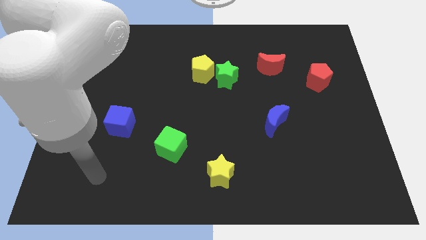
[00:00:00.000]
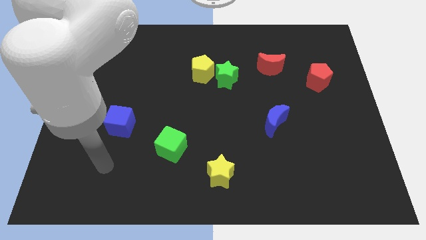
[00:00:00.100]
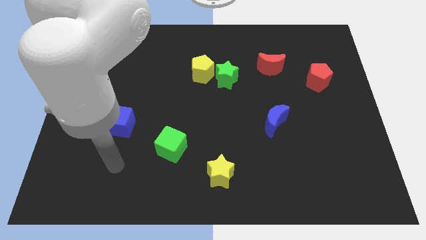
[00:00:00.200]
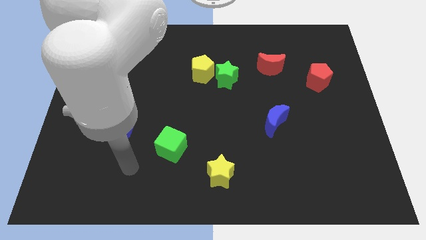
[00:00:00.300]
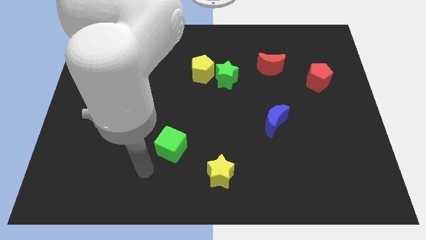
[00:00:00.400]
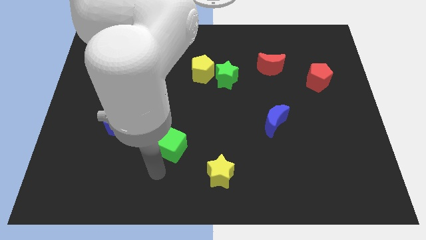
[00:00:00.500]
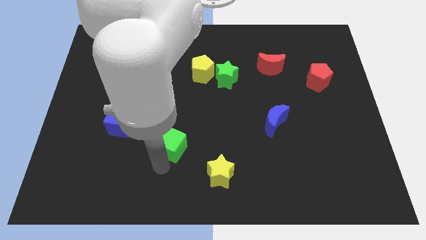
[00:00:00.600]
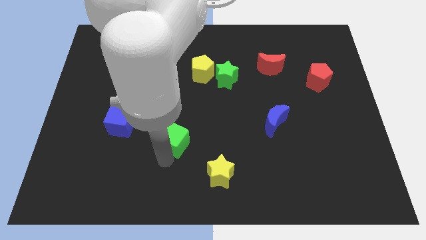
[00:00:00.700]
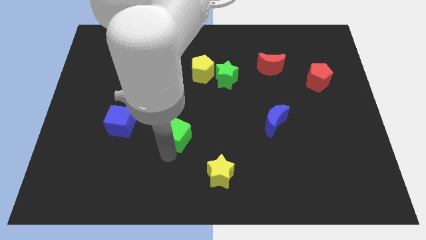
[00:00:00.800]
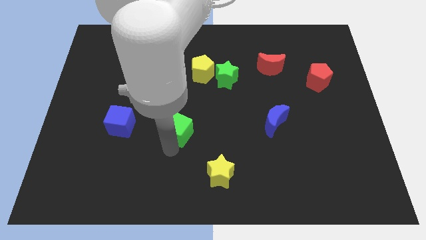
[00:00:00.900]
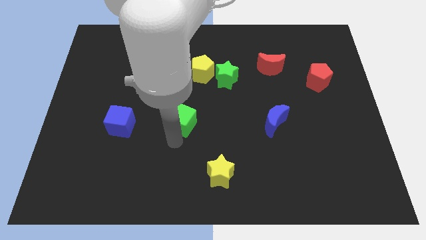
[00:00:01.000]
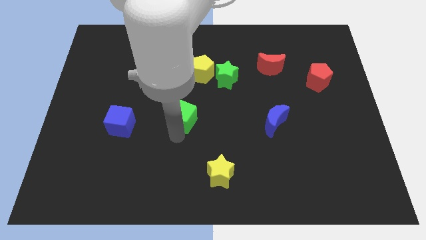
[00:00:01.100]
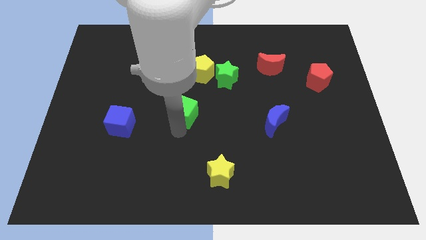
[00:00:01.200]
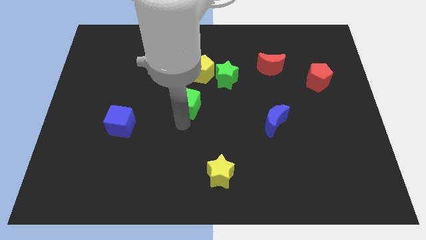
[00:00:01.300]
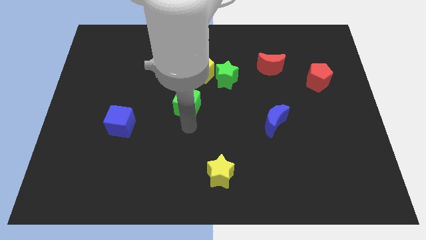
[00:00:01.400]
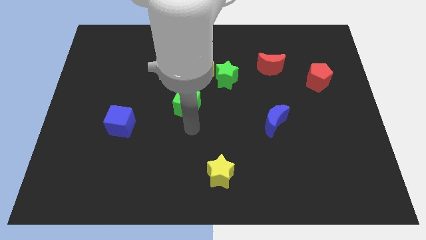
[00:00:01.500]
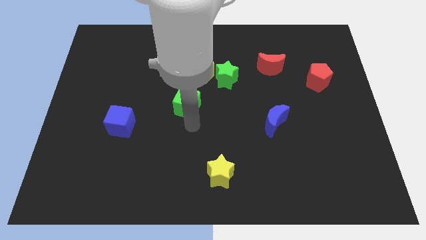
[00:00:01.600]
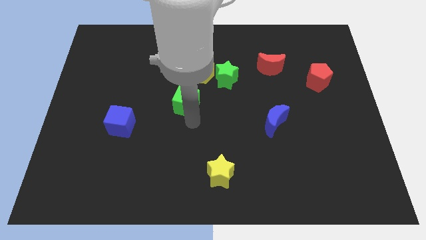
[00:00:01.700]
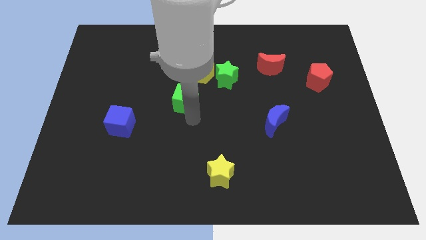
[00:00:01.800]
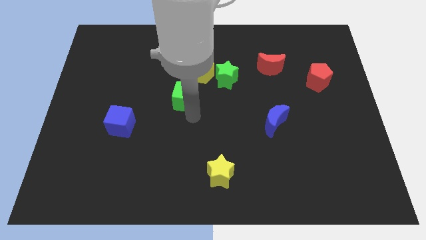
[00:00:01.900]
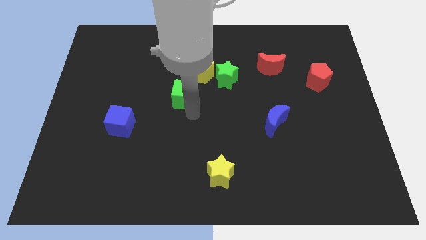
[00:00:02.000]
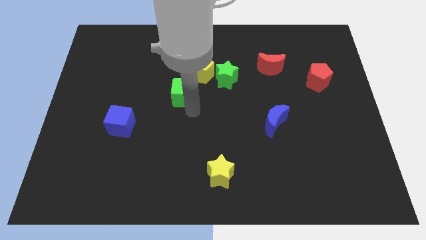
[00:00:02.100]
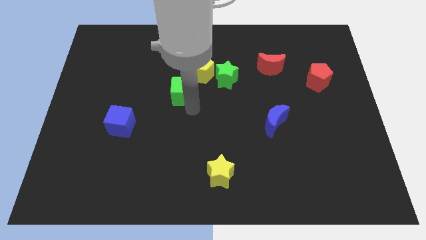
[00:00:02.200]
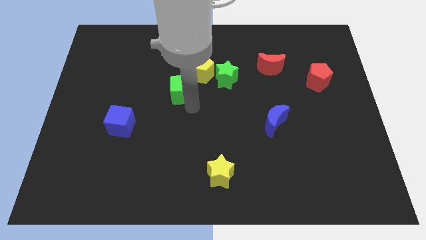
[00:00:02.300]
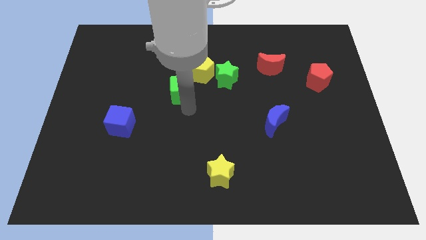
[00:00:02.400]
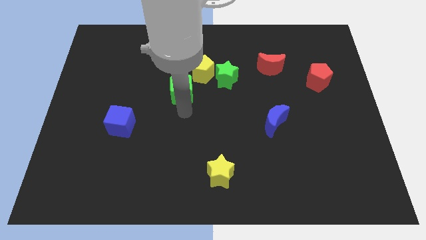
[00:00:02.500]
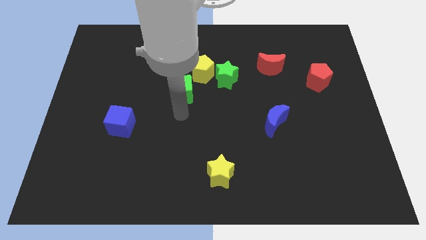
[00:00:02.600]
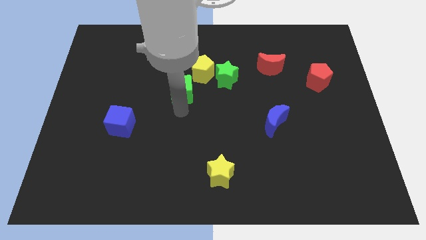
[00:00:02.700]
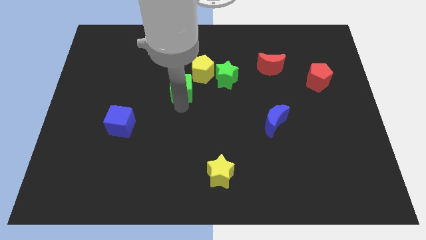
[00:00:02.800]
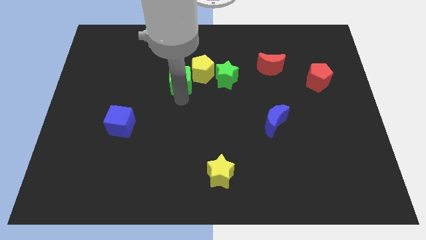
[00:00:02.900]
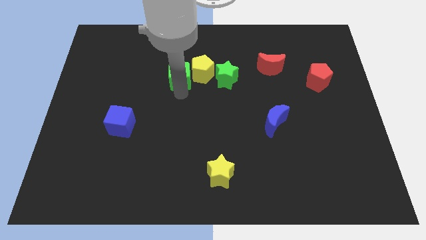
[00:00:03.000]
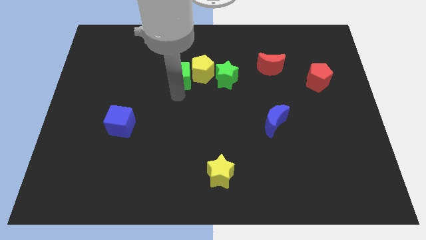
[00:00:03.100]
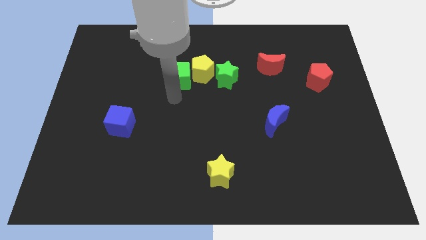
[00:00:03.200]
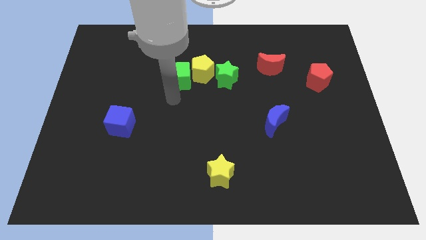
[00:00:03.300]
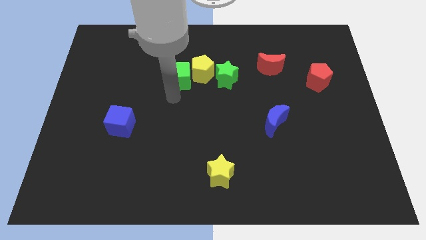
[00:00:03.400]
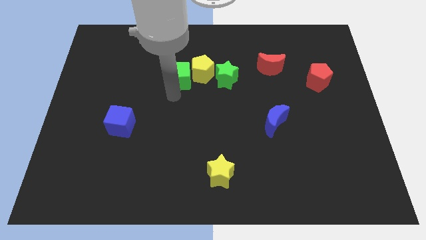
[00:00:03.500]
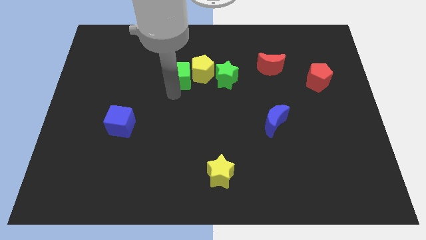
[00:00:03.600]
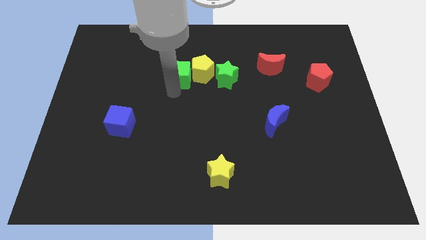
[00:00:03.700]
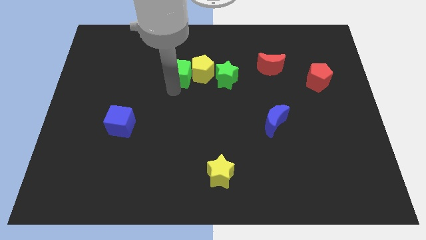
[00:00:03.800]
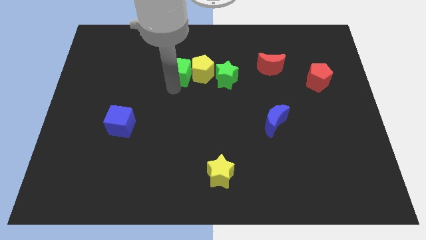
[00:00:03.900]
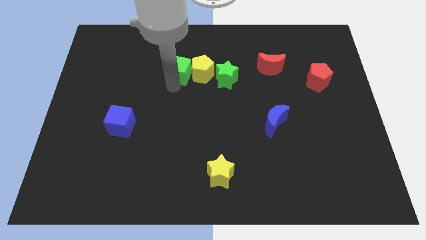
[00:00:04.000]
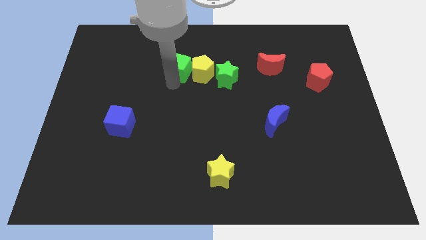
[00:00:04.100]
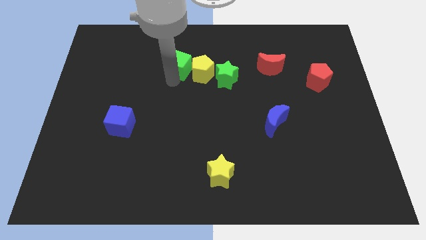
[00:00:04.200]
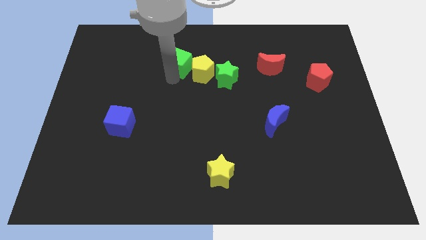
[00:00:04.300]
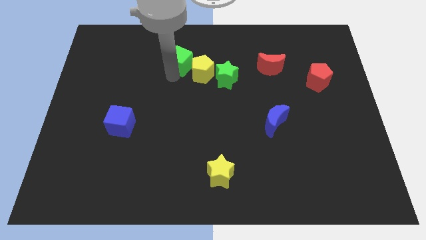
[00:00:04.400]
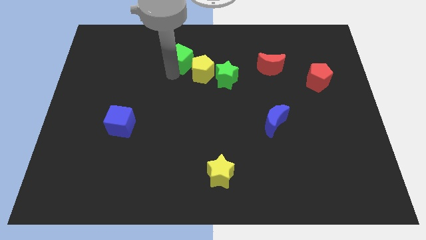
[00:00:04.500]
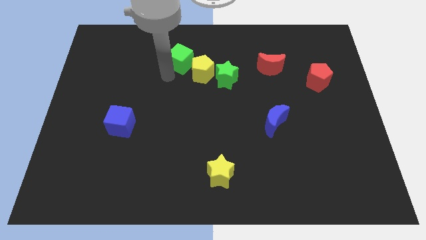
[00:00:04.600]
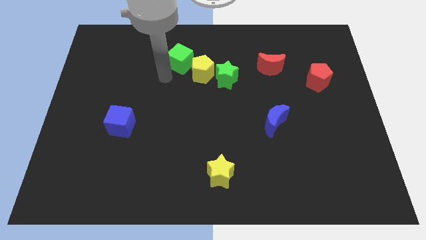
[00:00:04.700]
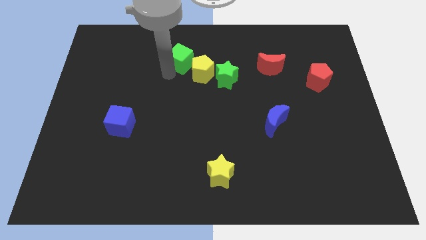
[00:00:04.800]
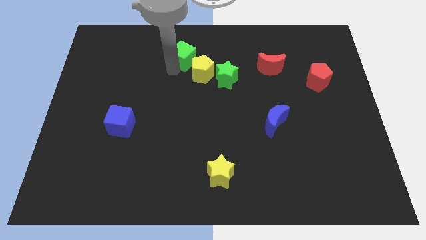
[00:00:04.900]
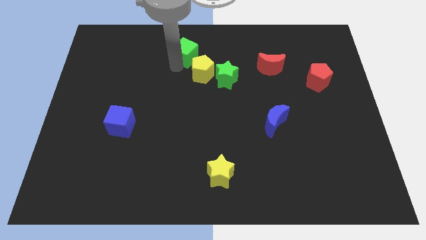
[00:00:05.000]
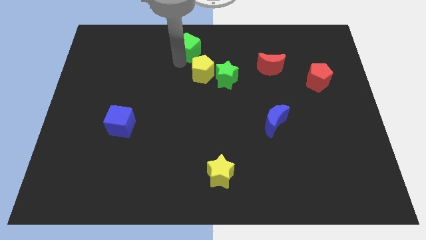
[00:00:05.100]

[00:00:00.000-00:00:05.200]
put the green cube to the top side

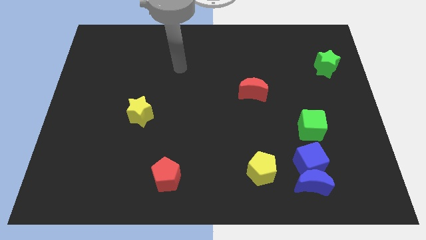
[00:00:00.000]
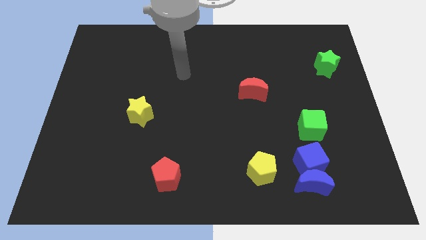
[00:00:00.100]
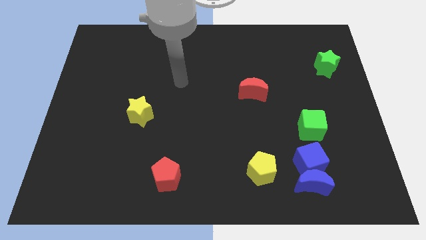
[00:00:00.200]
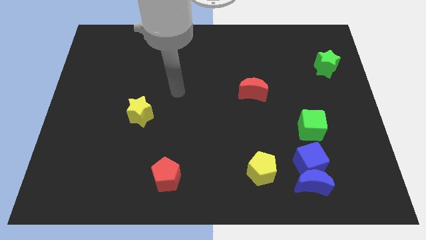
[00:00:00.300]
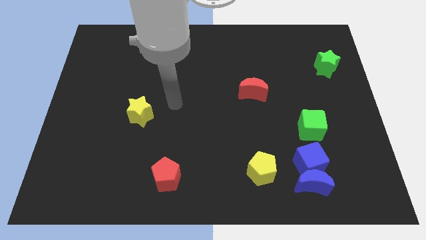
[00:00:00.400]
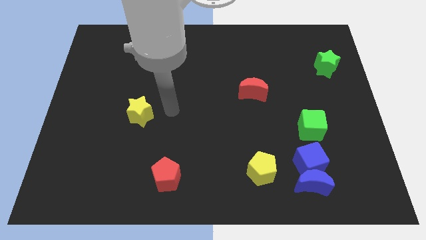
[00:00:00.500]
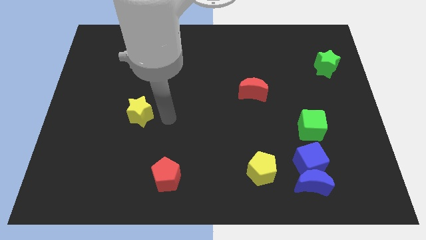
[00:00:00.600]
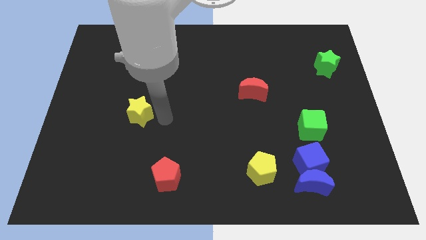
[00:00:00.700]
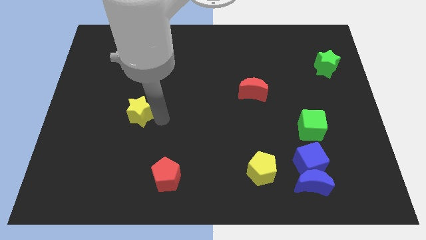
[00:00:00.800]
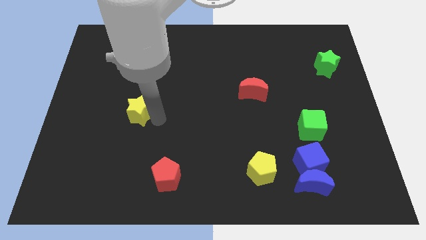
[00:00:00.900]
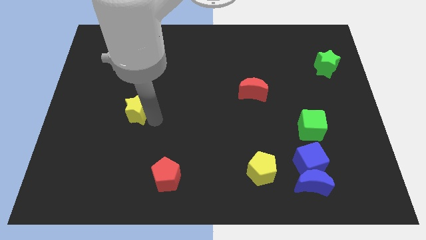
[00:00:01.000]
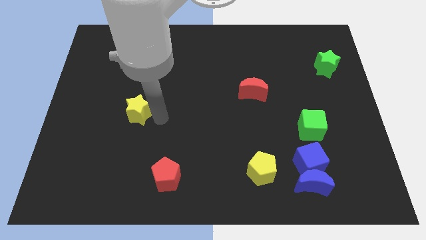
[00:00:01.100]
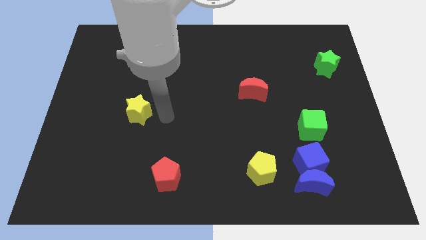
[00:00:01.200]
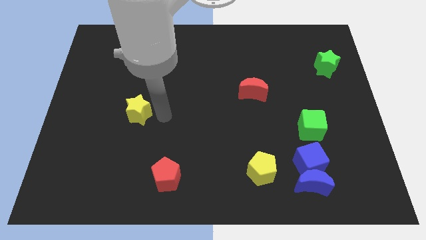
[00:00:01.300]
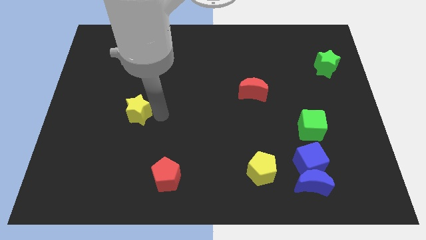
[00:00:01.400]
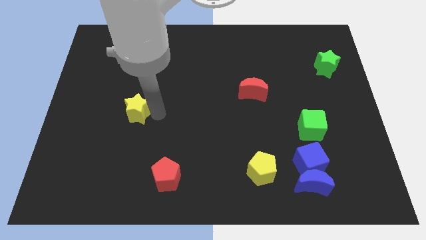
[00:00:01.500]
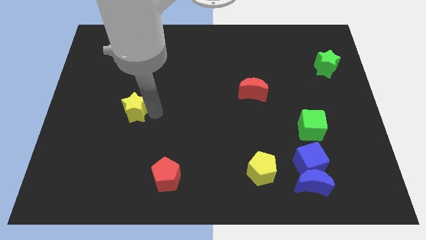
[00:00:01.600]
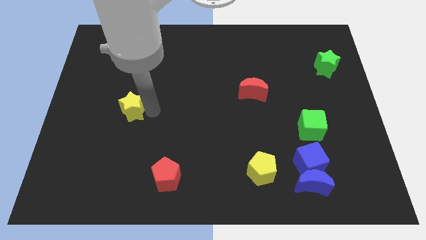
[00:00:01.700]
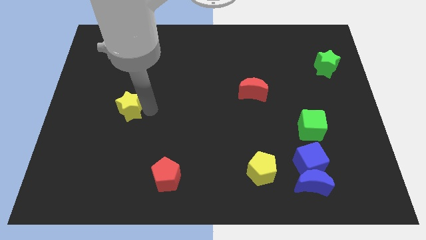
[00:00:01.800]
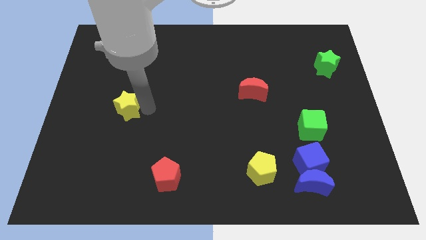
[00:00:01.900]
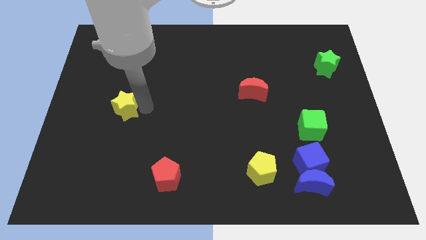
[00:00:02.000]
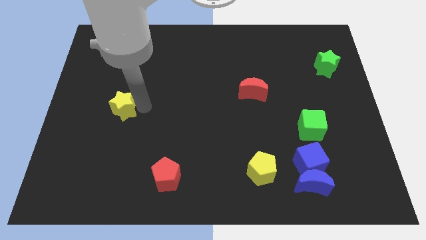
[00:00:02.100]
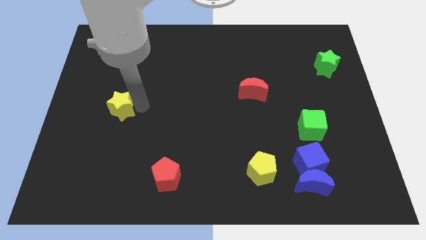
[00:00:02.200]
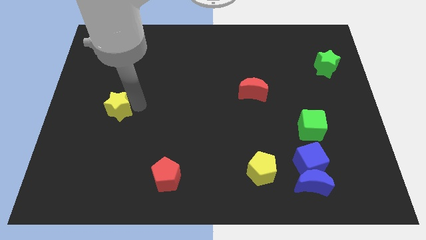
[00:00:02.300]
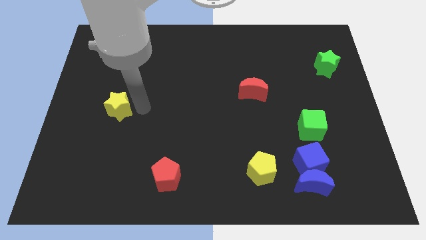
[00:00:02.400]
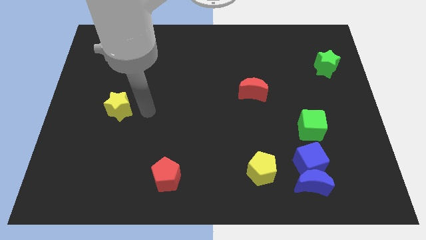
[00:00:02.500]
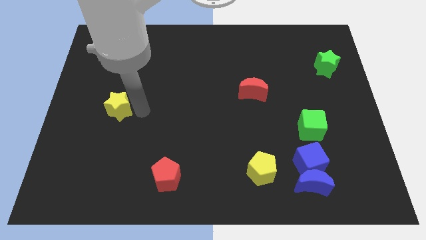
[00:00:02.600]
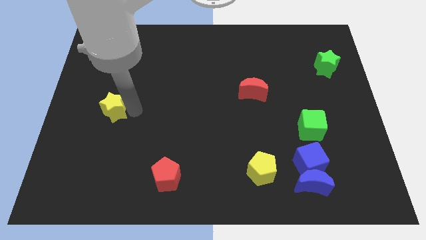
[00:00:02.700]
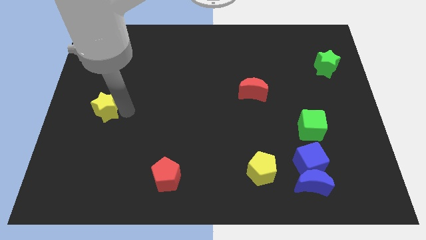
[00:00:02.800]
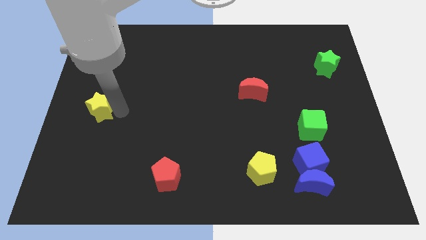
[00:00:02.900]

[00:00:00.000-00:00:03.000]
push the yellow star to the left side of the board
